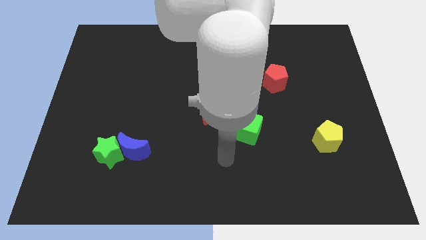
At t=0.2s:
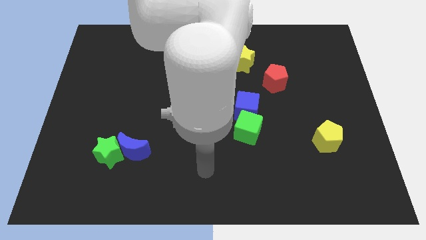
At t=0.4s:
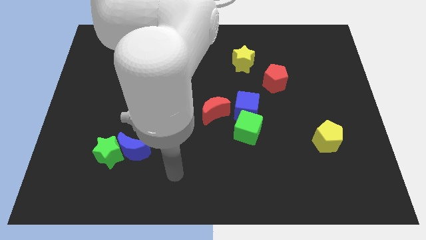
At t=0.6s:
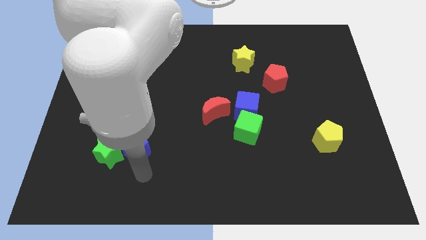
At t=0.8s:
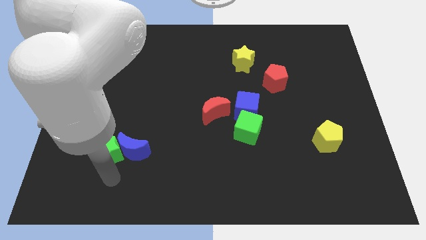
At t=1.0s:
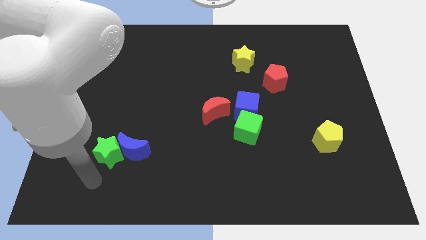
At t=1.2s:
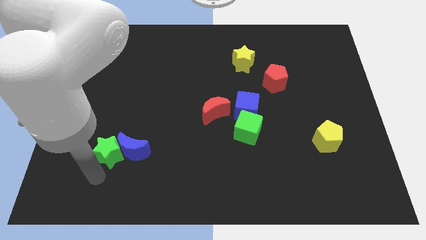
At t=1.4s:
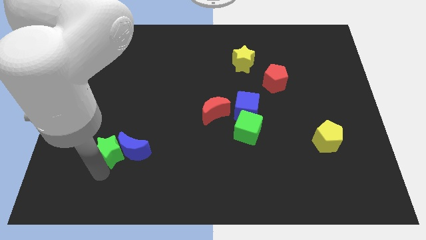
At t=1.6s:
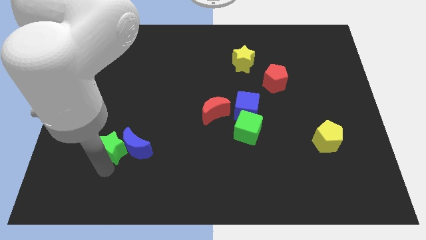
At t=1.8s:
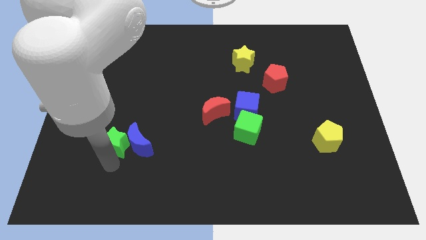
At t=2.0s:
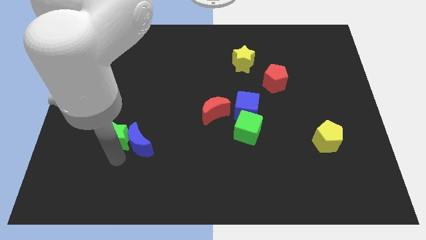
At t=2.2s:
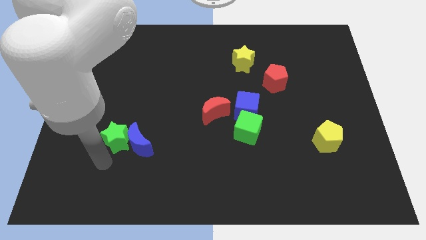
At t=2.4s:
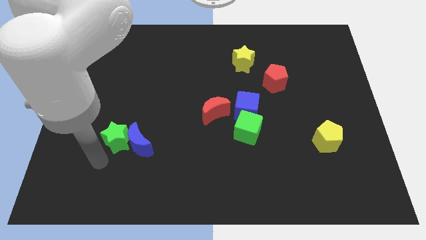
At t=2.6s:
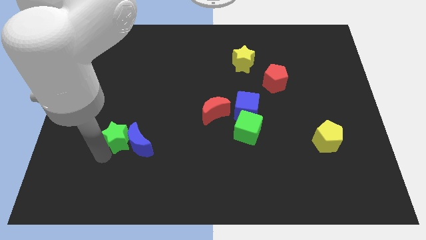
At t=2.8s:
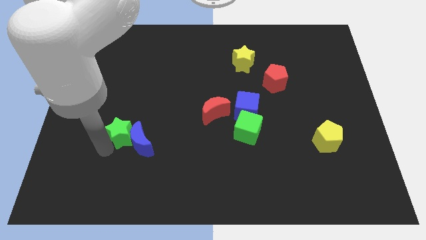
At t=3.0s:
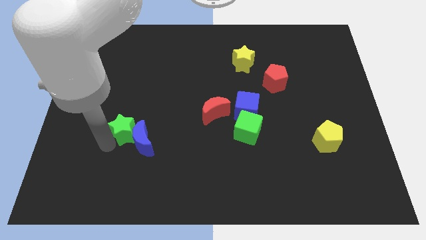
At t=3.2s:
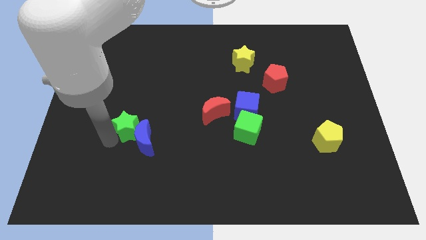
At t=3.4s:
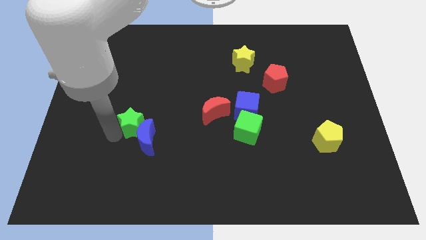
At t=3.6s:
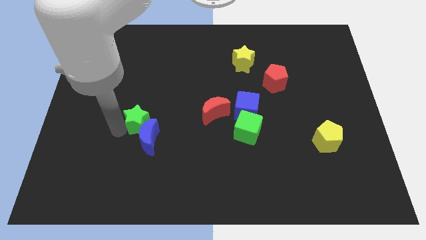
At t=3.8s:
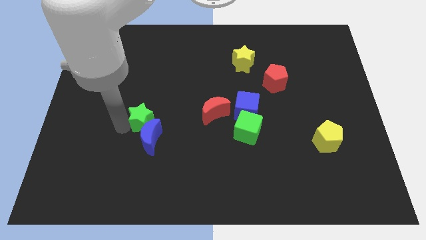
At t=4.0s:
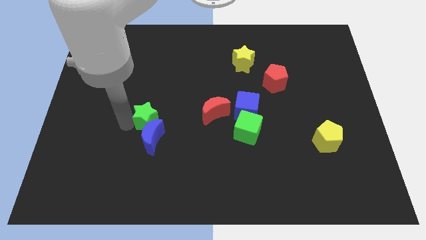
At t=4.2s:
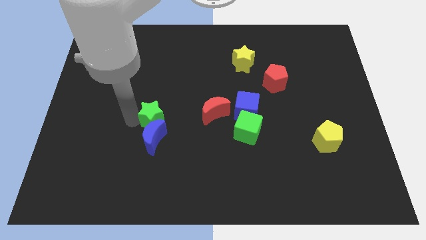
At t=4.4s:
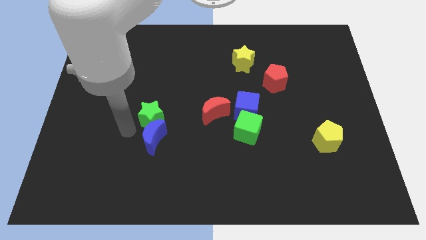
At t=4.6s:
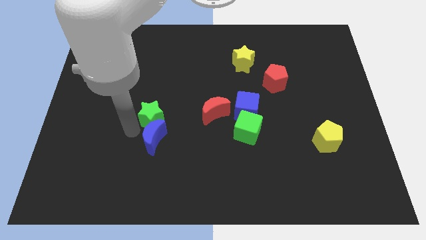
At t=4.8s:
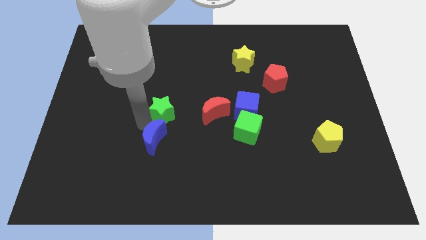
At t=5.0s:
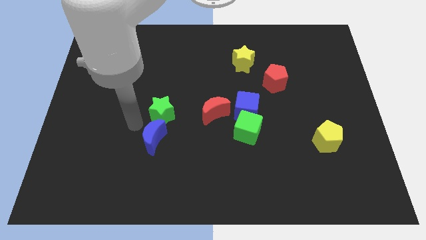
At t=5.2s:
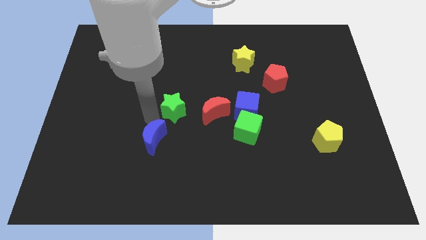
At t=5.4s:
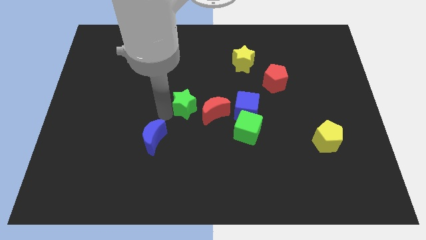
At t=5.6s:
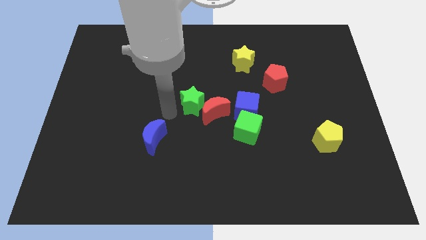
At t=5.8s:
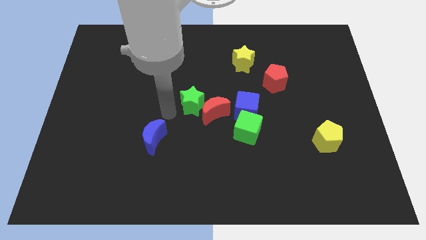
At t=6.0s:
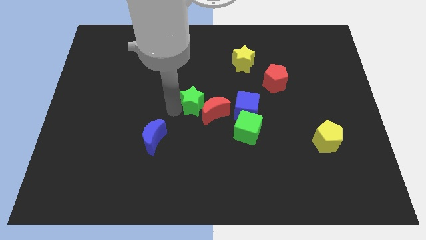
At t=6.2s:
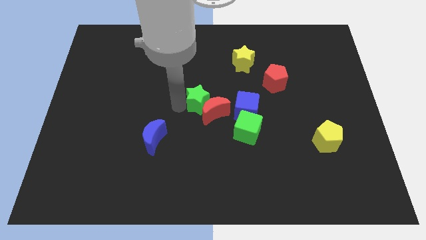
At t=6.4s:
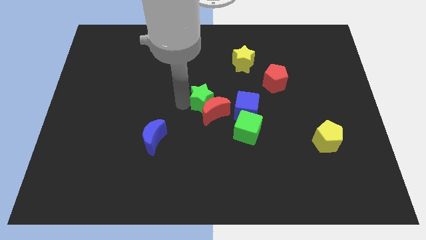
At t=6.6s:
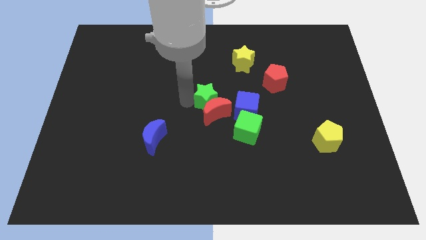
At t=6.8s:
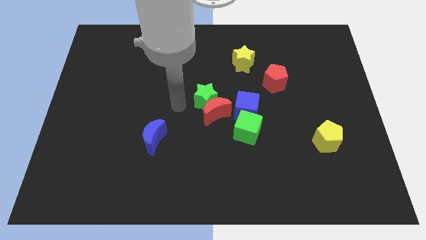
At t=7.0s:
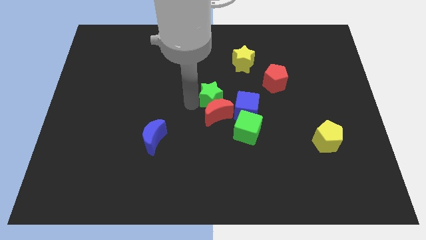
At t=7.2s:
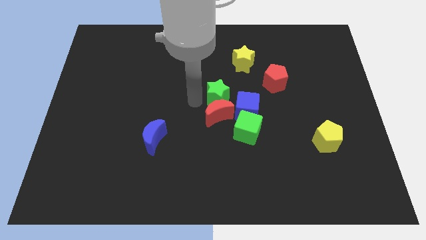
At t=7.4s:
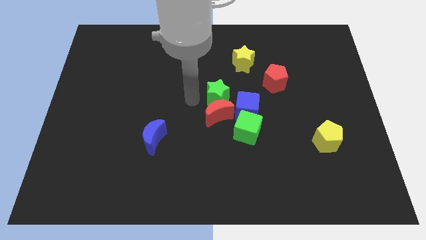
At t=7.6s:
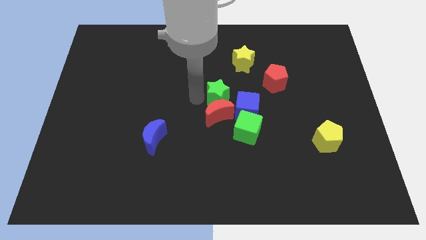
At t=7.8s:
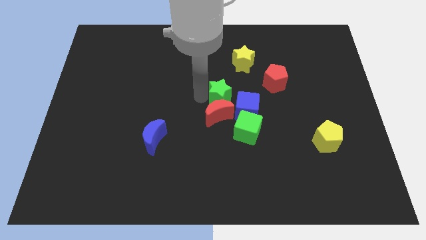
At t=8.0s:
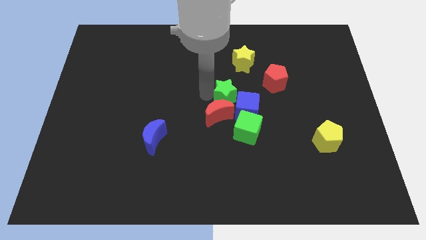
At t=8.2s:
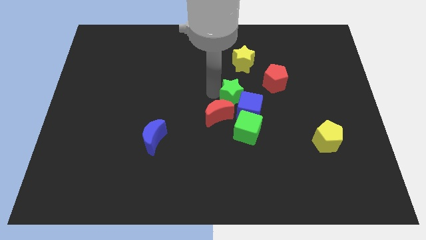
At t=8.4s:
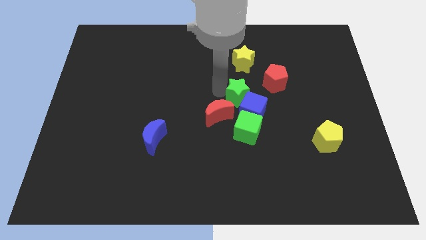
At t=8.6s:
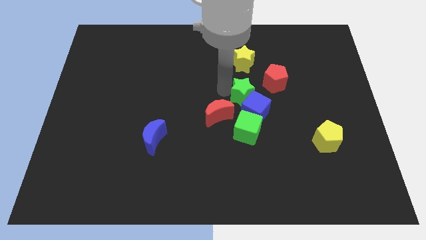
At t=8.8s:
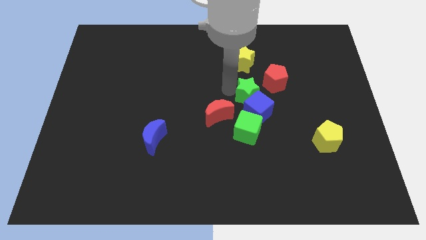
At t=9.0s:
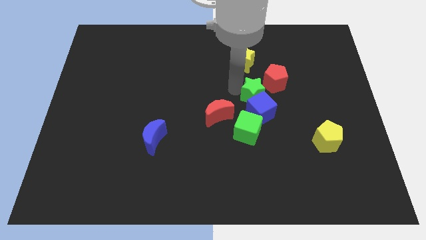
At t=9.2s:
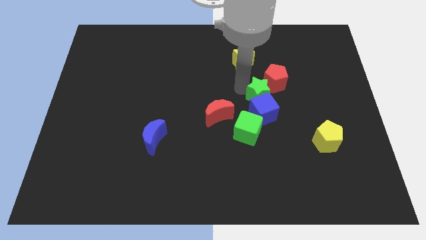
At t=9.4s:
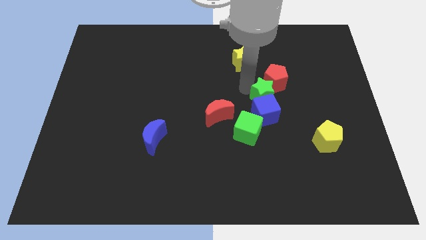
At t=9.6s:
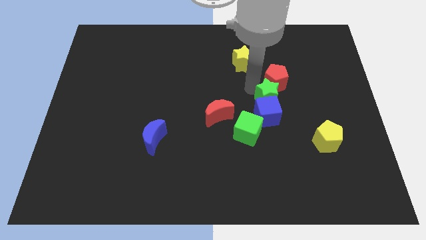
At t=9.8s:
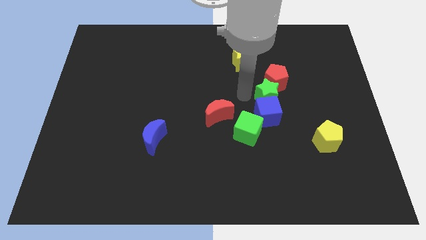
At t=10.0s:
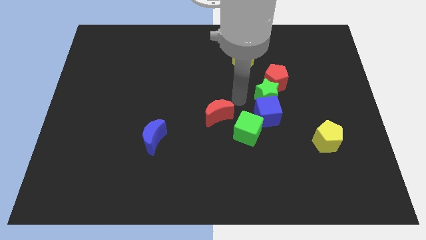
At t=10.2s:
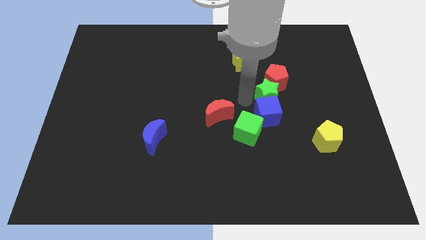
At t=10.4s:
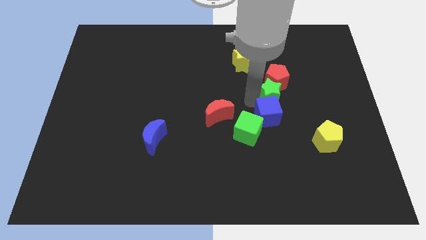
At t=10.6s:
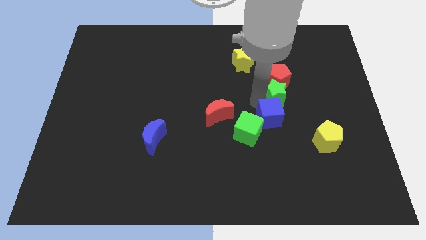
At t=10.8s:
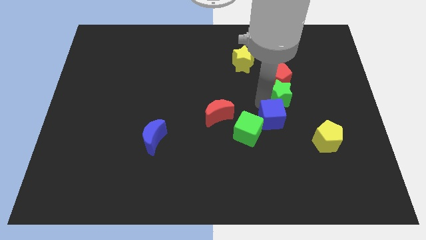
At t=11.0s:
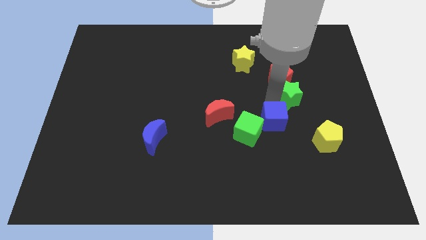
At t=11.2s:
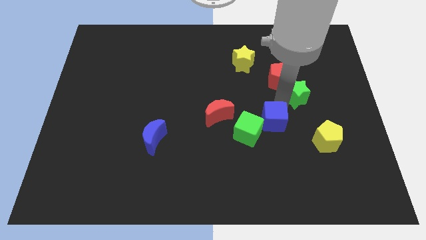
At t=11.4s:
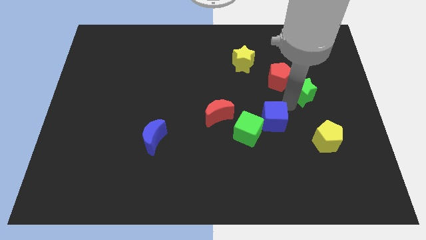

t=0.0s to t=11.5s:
push the green star right of the red pentagon
